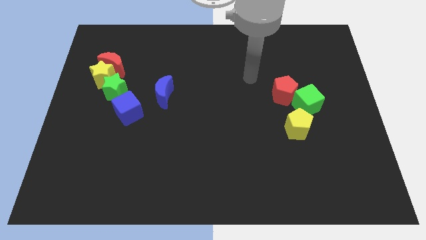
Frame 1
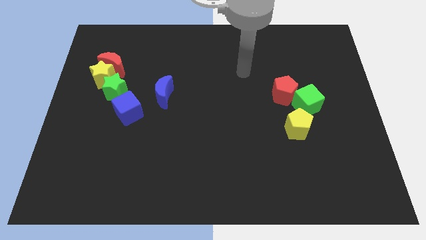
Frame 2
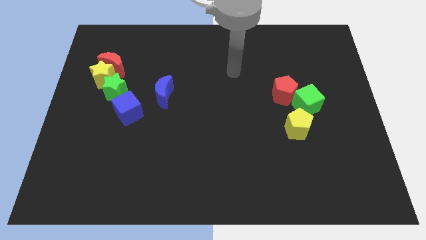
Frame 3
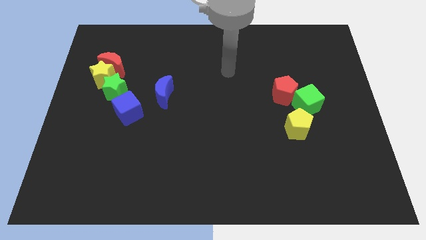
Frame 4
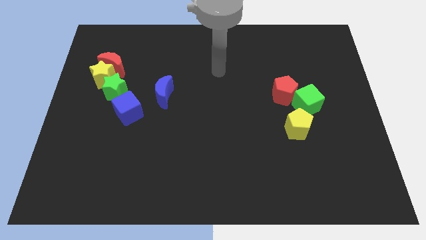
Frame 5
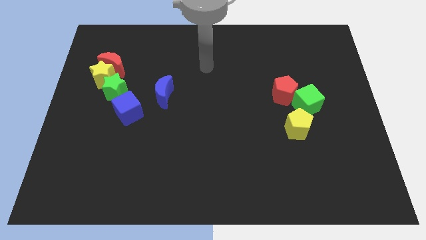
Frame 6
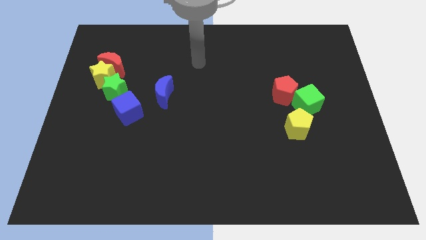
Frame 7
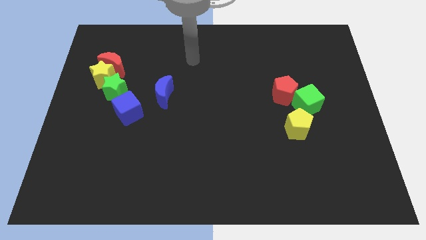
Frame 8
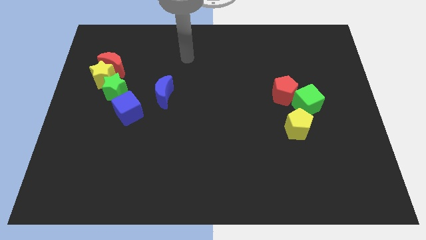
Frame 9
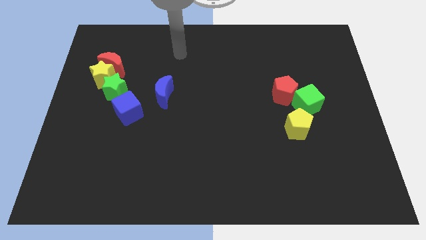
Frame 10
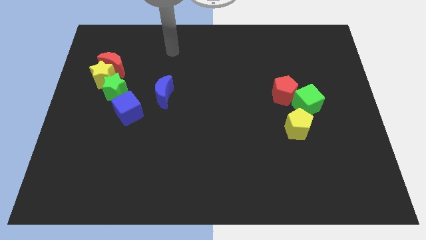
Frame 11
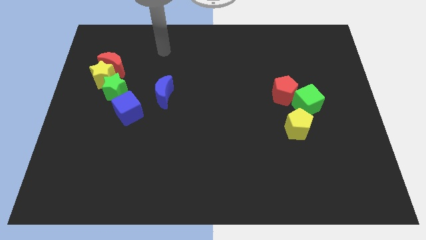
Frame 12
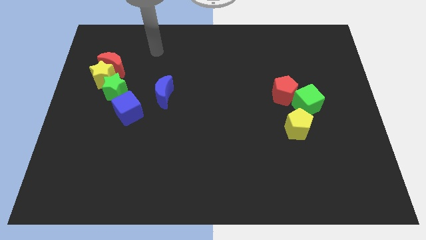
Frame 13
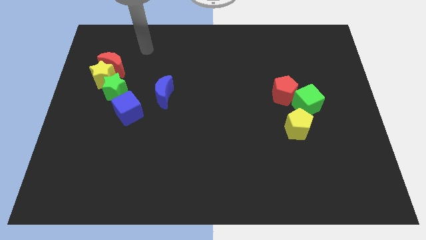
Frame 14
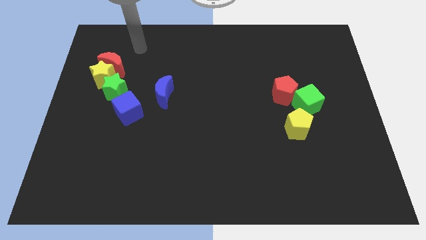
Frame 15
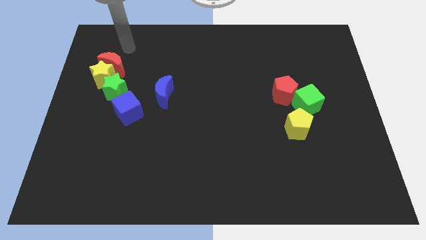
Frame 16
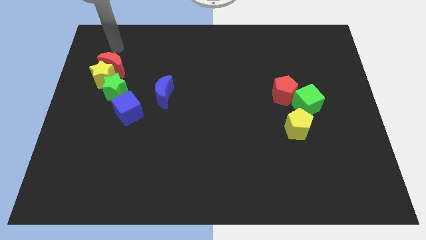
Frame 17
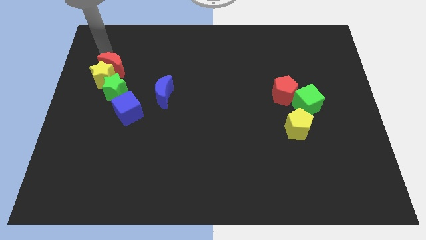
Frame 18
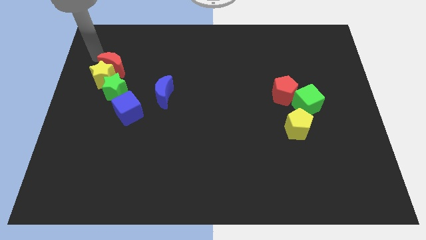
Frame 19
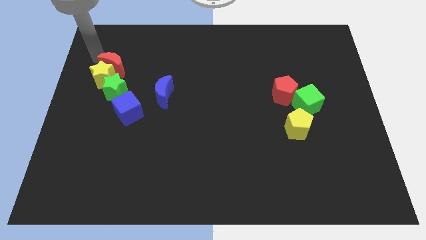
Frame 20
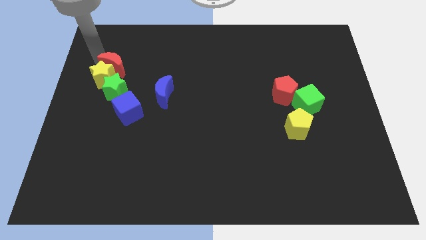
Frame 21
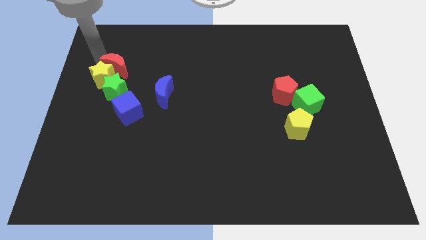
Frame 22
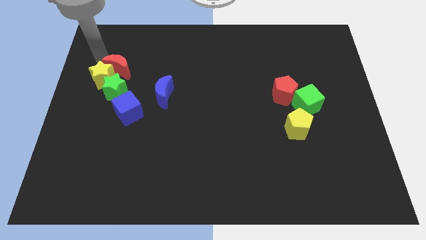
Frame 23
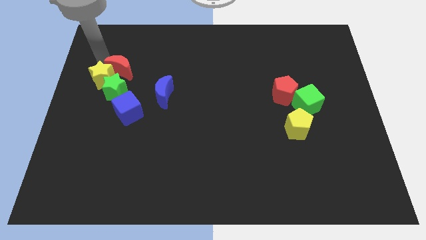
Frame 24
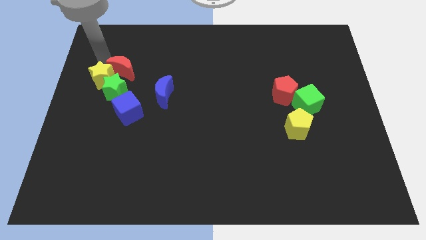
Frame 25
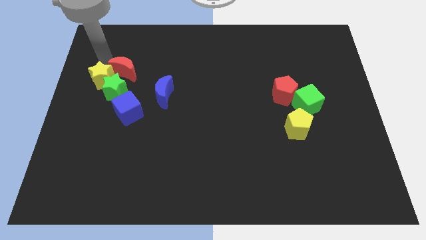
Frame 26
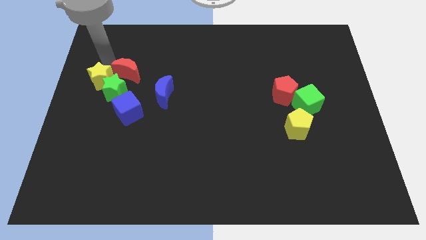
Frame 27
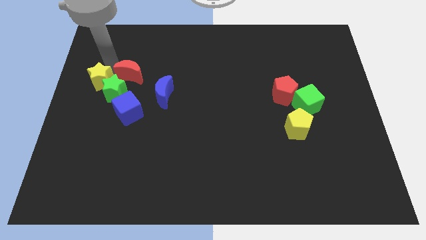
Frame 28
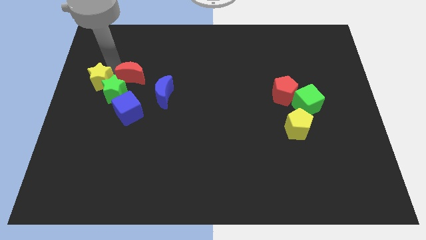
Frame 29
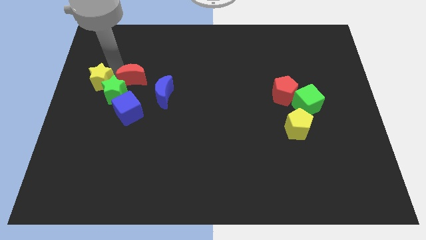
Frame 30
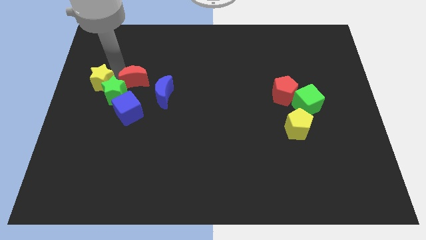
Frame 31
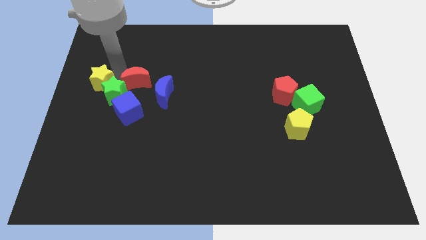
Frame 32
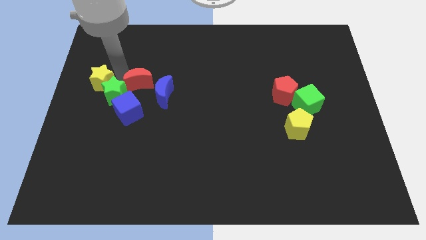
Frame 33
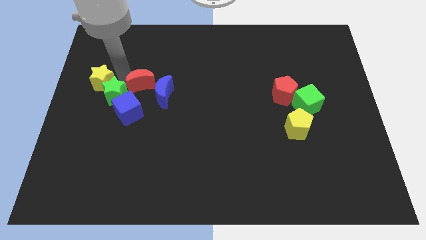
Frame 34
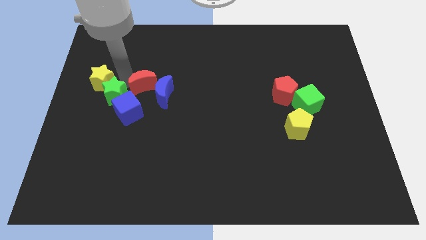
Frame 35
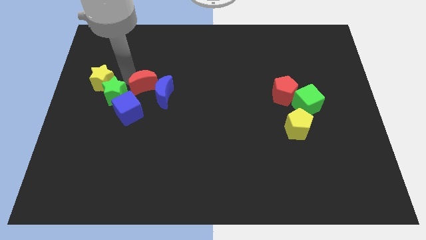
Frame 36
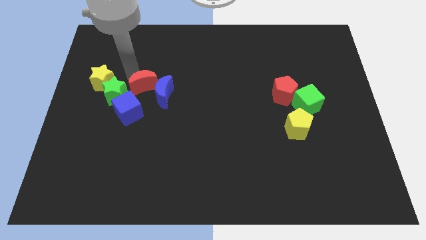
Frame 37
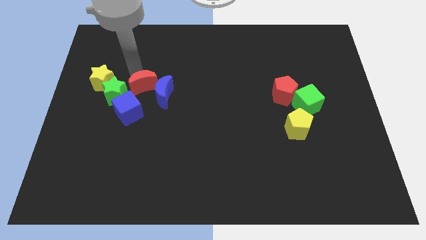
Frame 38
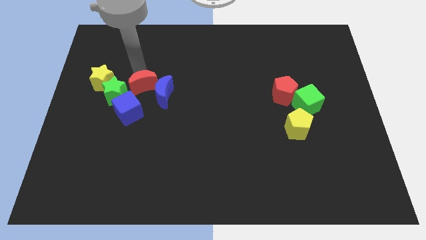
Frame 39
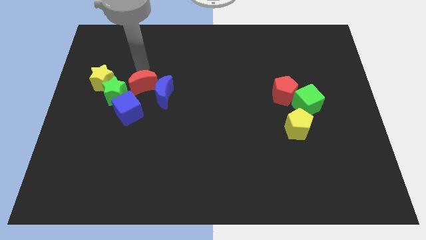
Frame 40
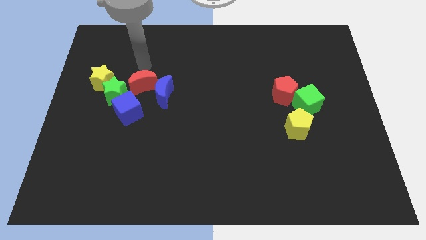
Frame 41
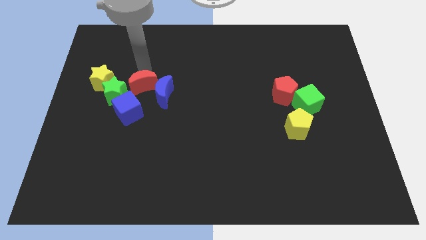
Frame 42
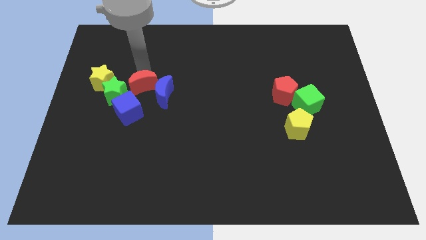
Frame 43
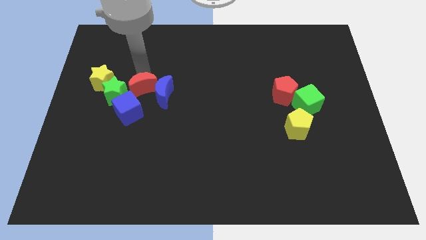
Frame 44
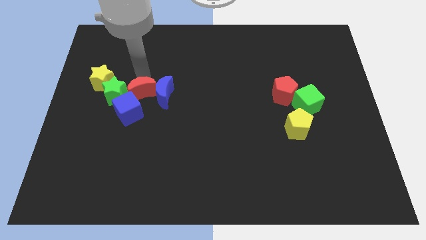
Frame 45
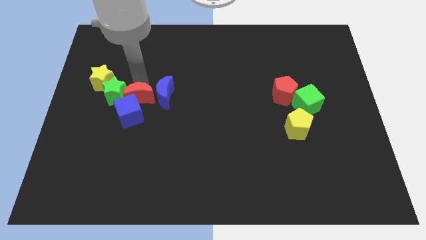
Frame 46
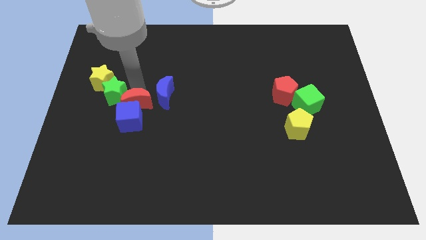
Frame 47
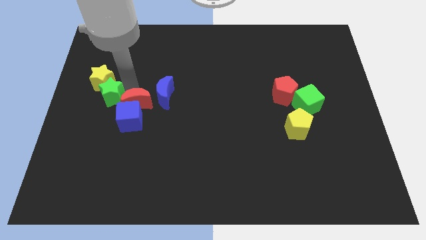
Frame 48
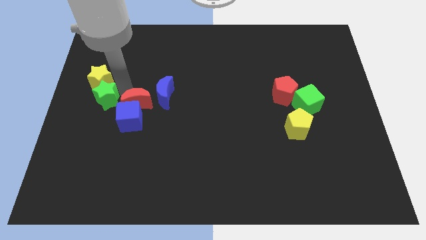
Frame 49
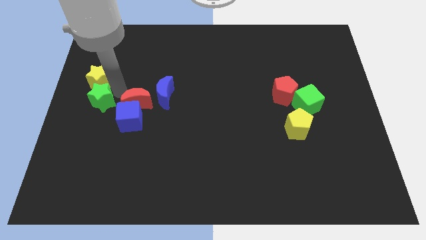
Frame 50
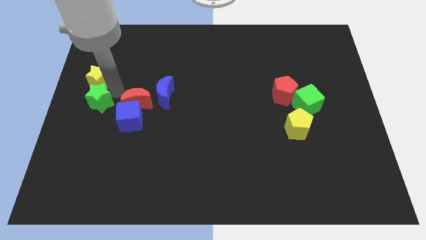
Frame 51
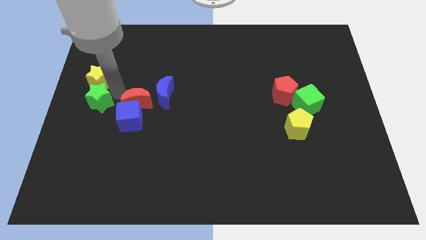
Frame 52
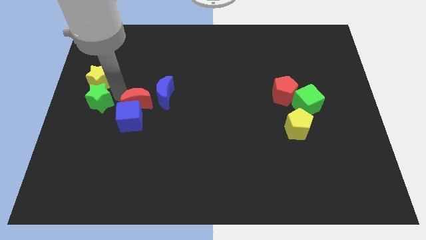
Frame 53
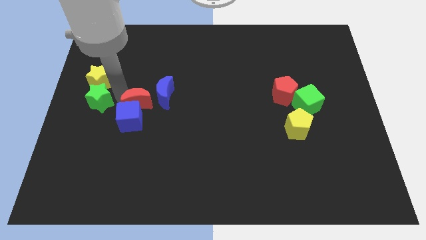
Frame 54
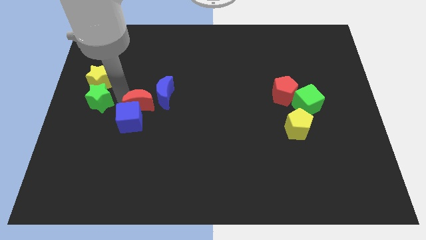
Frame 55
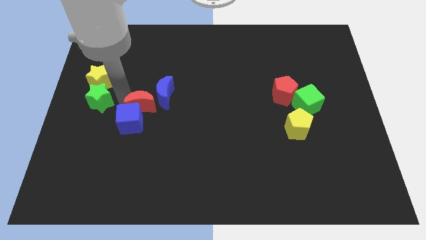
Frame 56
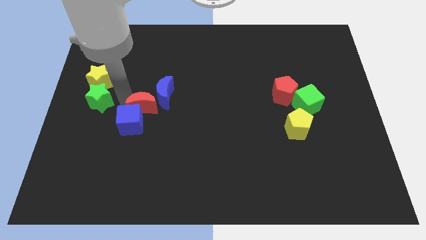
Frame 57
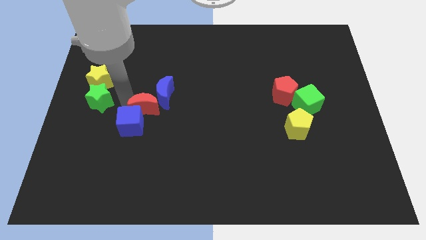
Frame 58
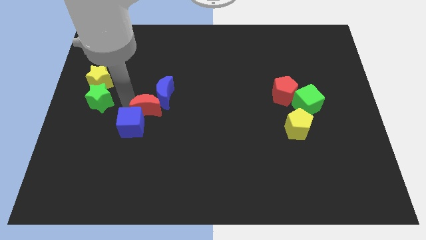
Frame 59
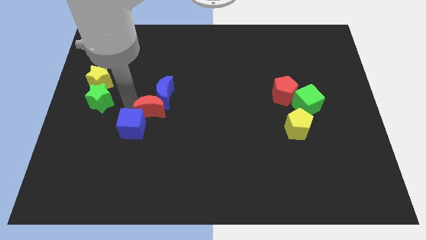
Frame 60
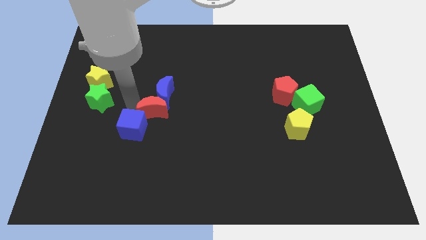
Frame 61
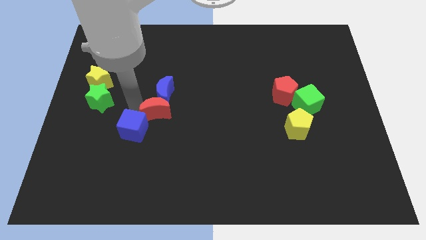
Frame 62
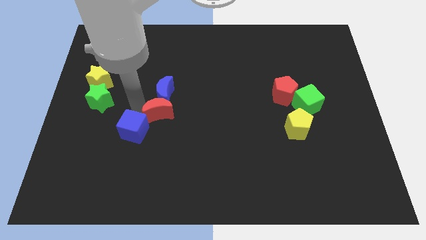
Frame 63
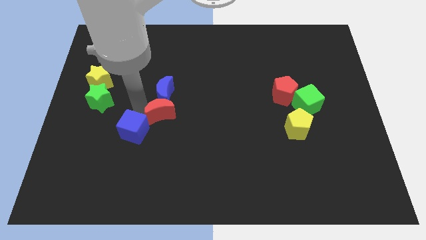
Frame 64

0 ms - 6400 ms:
push the red moon down and to the right

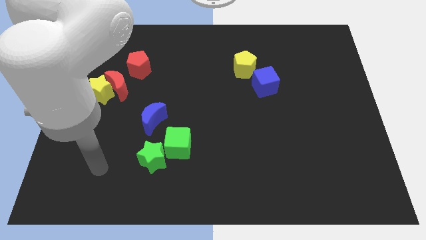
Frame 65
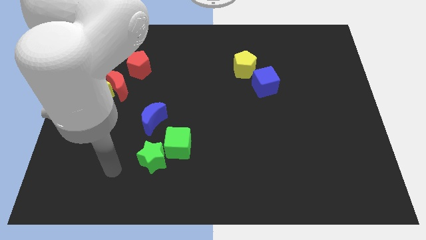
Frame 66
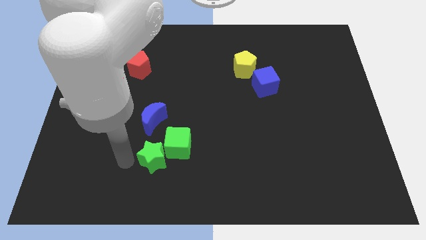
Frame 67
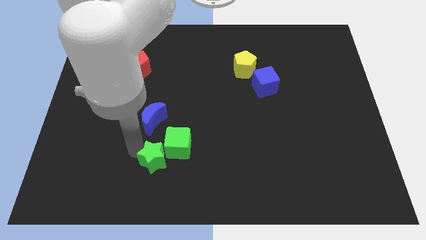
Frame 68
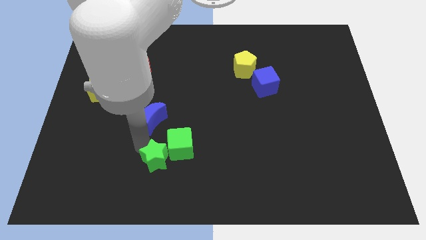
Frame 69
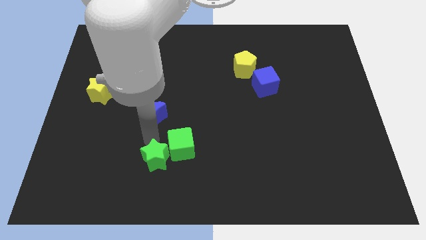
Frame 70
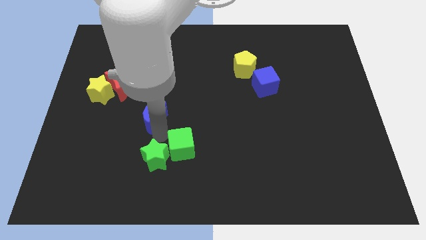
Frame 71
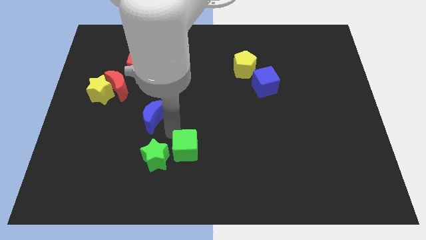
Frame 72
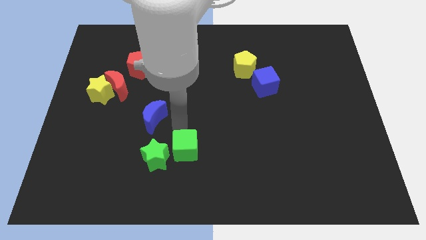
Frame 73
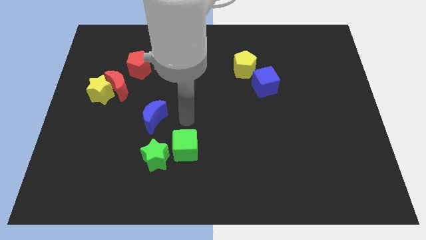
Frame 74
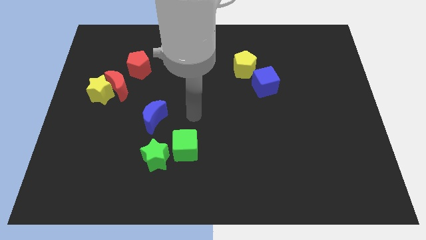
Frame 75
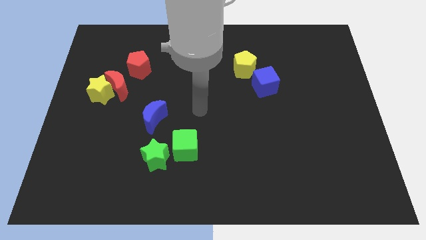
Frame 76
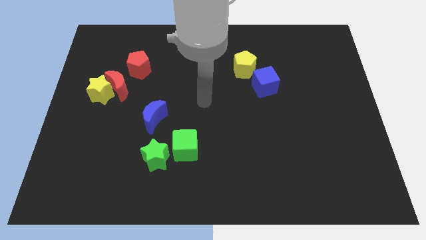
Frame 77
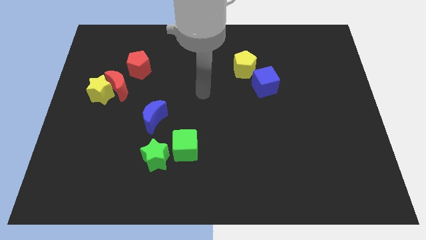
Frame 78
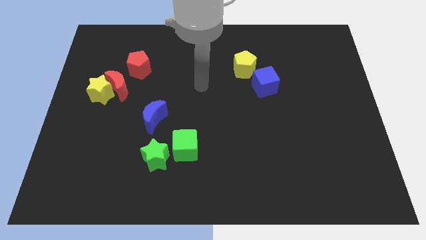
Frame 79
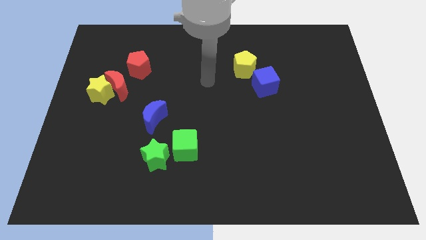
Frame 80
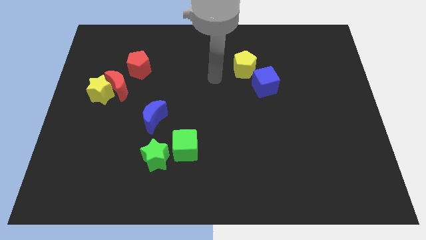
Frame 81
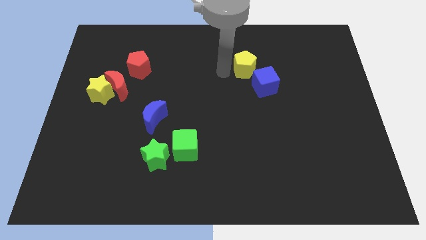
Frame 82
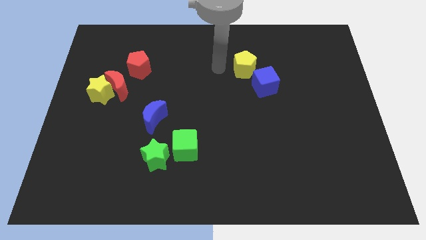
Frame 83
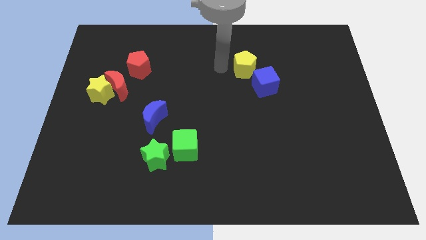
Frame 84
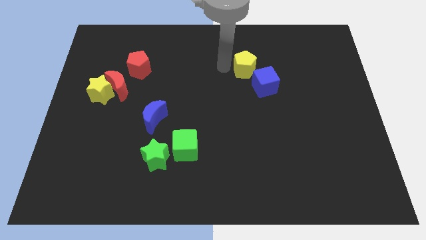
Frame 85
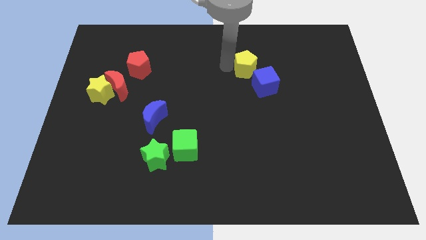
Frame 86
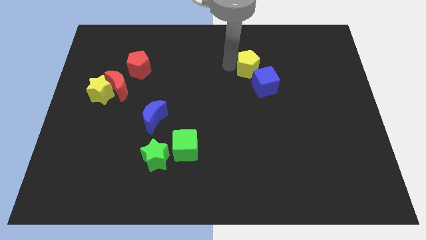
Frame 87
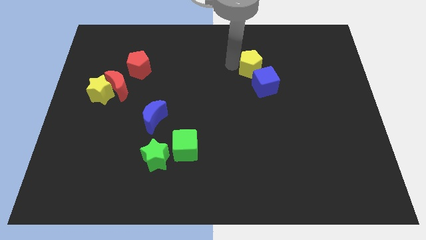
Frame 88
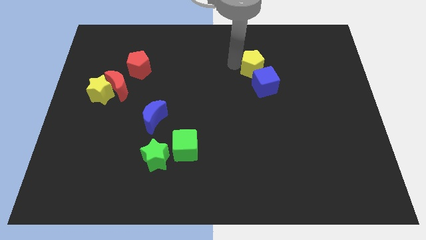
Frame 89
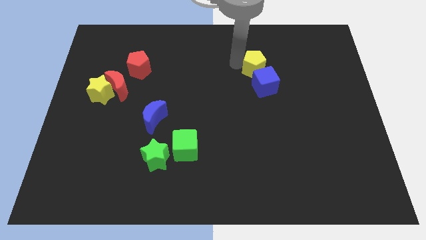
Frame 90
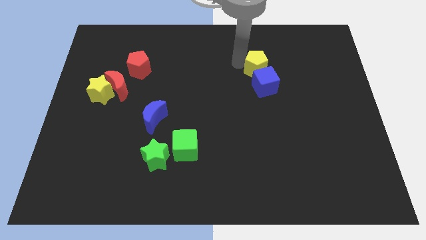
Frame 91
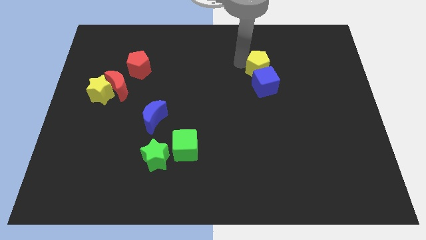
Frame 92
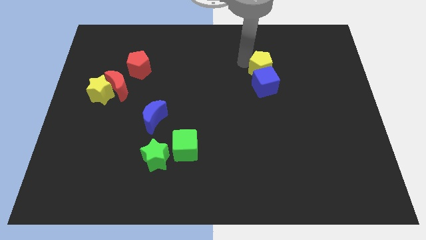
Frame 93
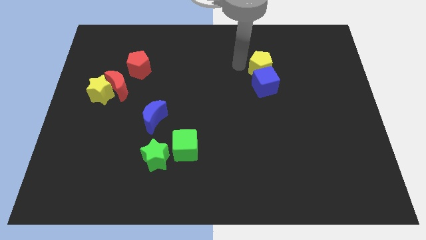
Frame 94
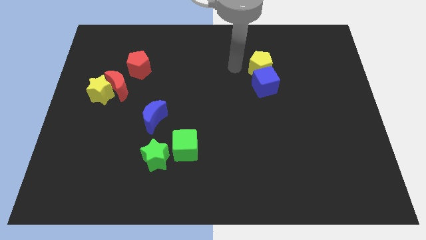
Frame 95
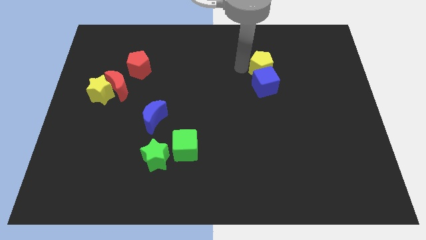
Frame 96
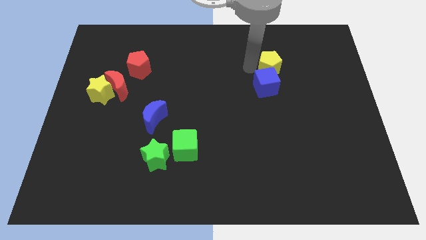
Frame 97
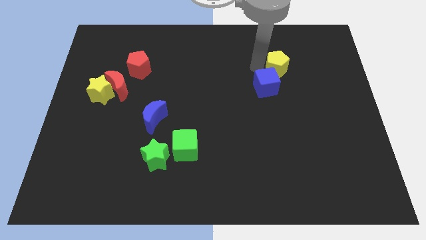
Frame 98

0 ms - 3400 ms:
slide the yellow pentagon to the right a bit
